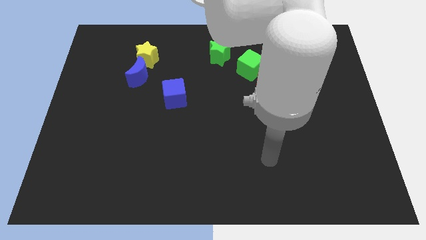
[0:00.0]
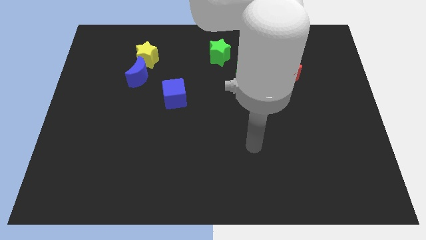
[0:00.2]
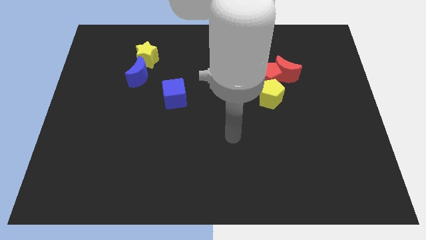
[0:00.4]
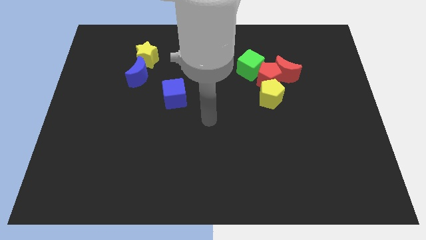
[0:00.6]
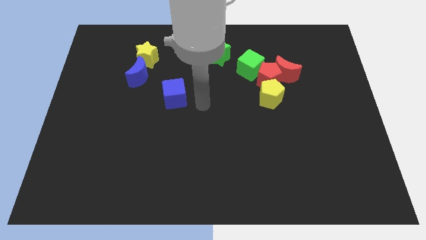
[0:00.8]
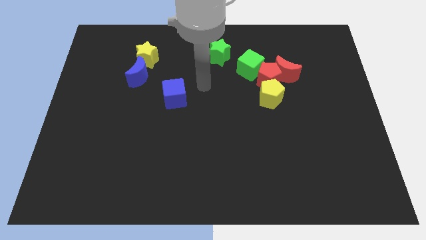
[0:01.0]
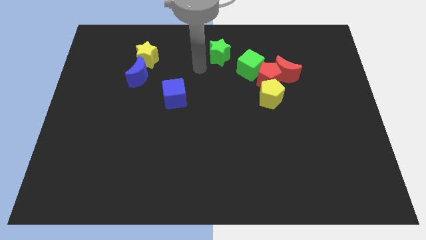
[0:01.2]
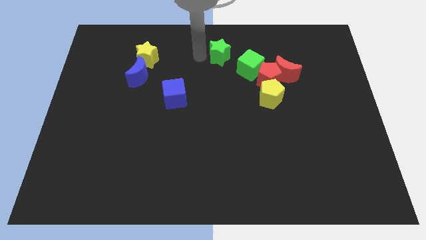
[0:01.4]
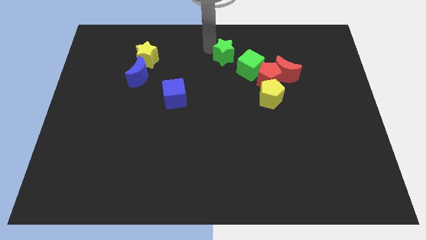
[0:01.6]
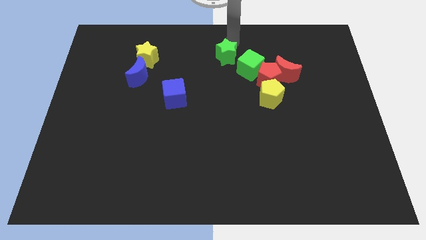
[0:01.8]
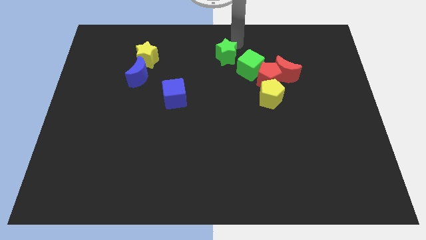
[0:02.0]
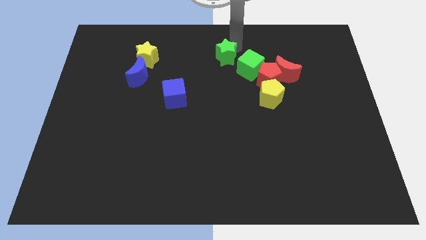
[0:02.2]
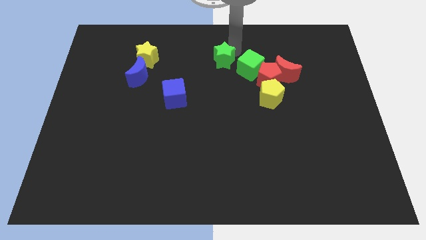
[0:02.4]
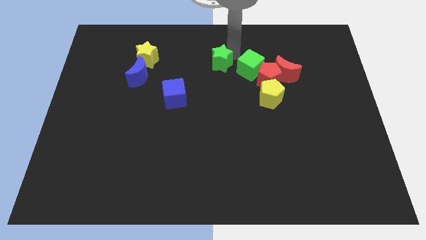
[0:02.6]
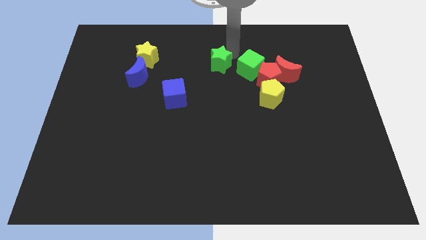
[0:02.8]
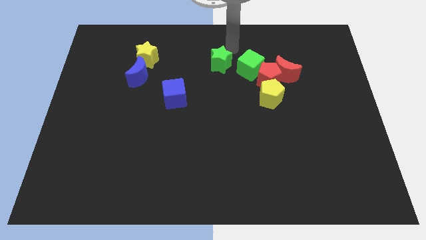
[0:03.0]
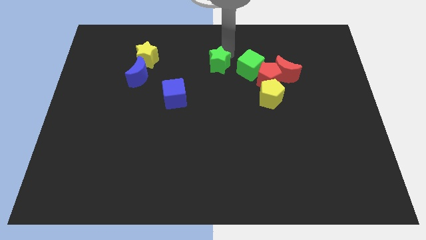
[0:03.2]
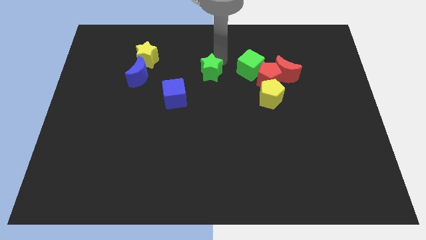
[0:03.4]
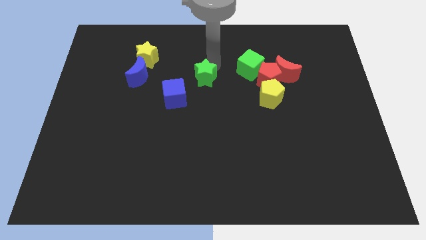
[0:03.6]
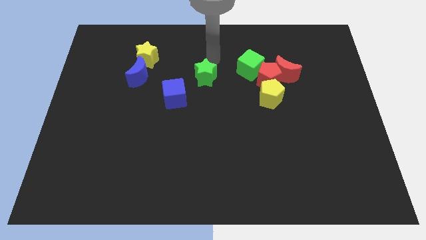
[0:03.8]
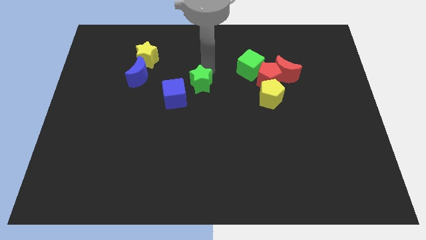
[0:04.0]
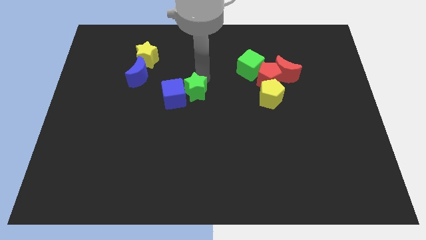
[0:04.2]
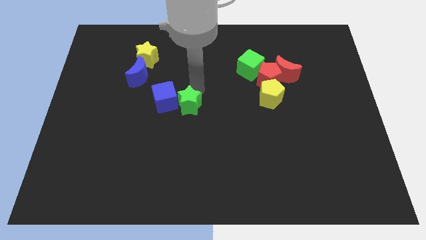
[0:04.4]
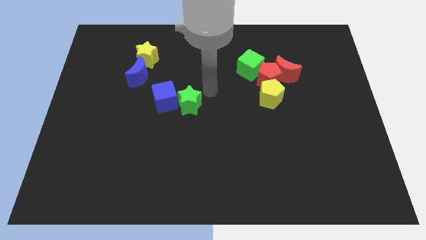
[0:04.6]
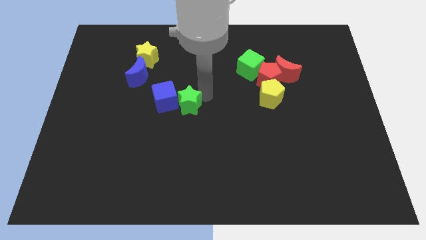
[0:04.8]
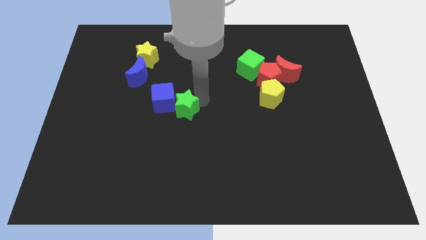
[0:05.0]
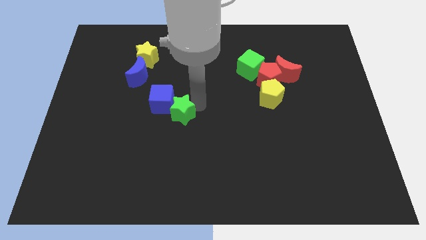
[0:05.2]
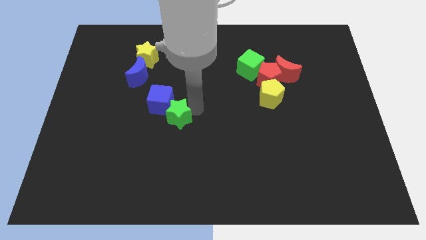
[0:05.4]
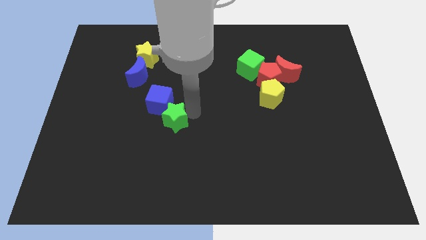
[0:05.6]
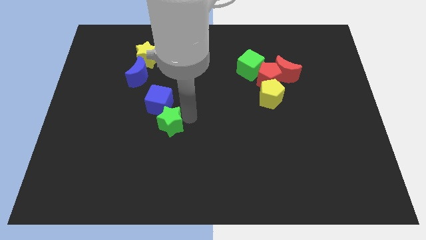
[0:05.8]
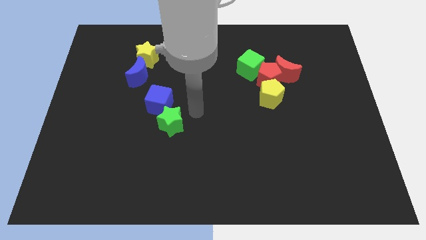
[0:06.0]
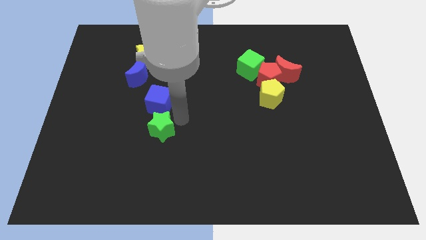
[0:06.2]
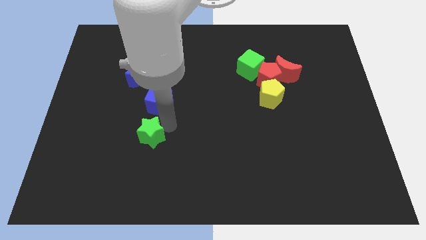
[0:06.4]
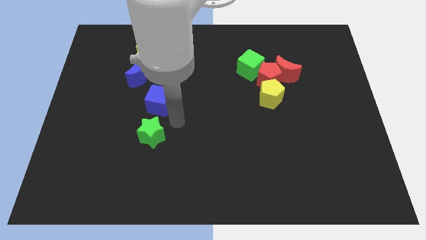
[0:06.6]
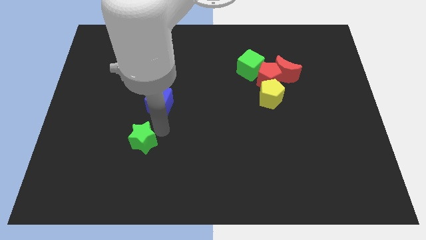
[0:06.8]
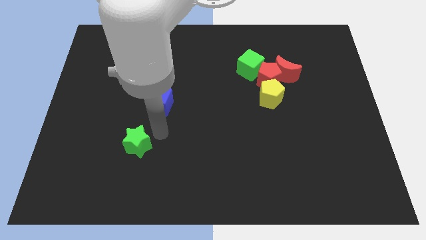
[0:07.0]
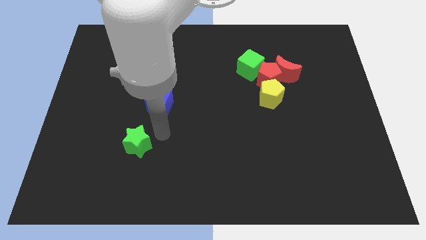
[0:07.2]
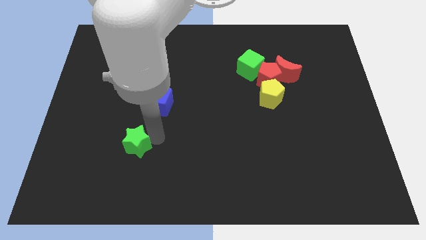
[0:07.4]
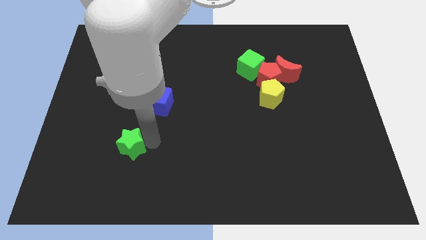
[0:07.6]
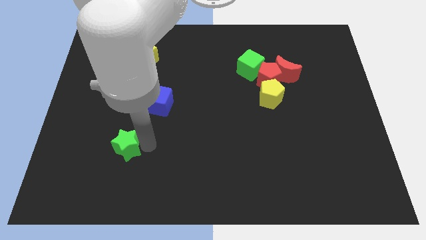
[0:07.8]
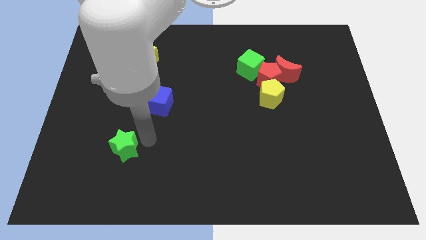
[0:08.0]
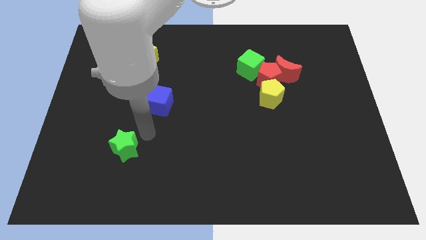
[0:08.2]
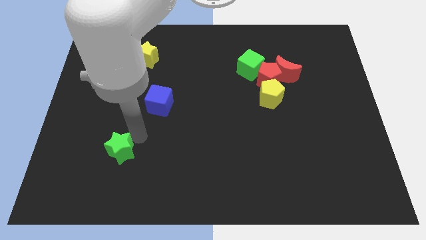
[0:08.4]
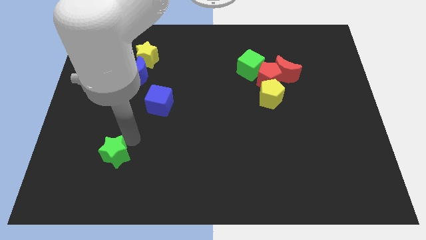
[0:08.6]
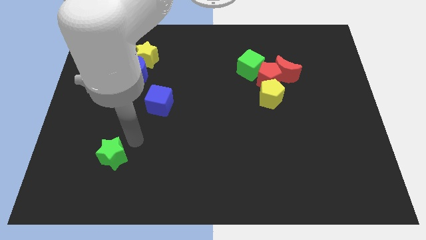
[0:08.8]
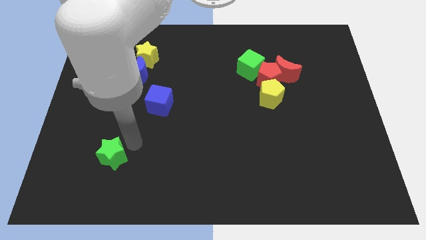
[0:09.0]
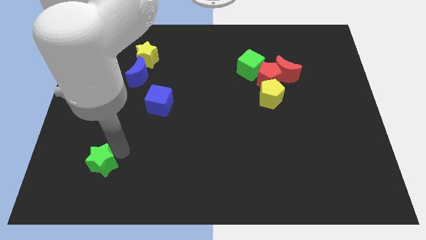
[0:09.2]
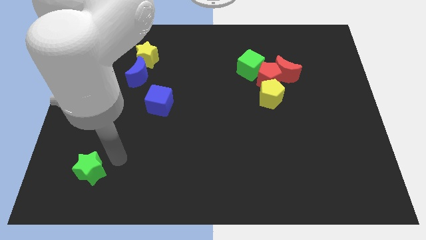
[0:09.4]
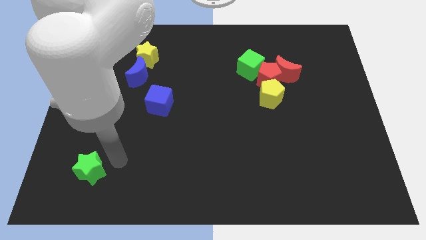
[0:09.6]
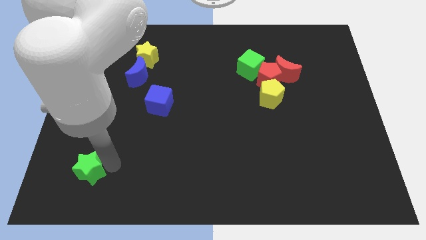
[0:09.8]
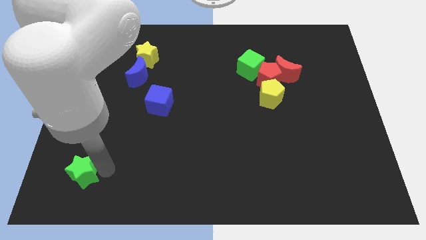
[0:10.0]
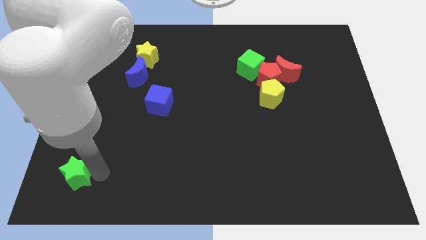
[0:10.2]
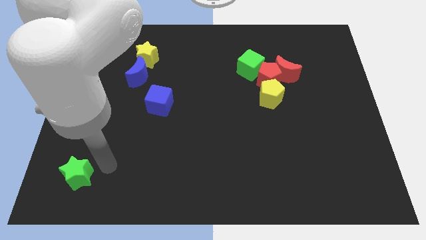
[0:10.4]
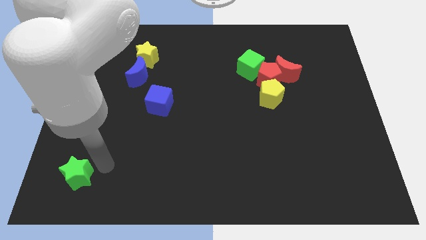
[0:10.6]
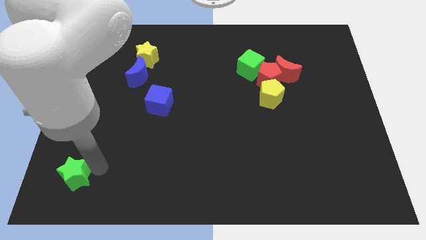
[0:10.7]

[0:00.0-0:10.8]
push the green star to the lower left corner

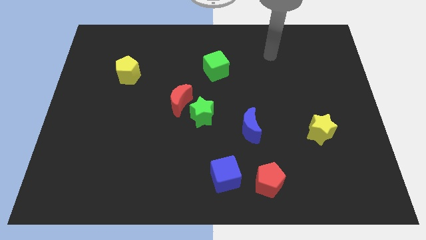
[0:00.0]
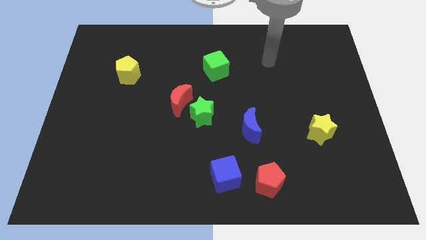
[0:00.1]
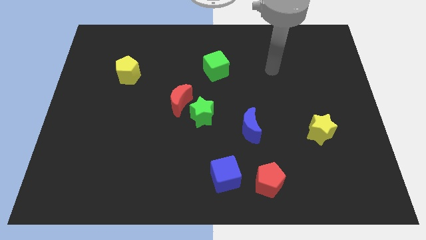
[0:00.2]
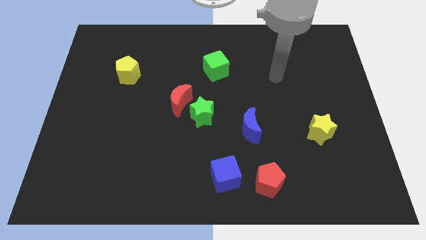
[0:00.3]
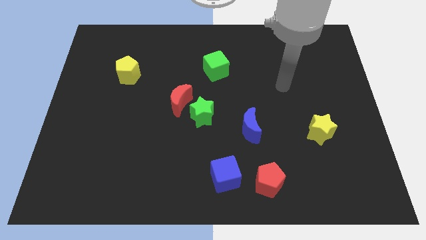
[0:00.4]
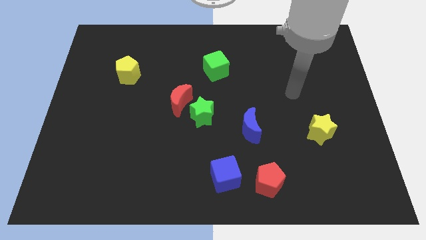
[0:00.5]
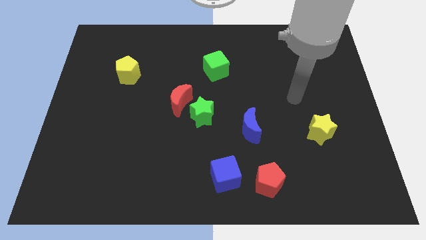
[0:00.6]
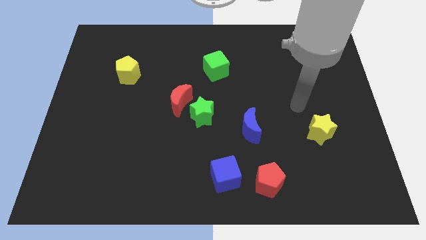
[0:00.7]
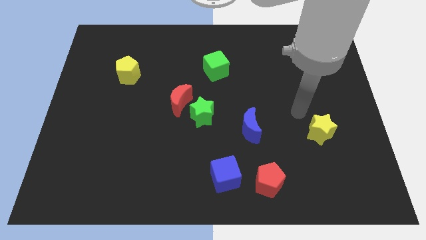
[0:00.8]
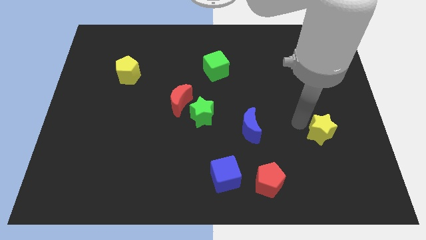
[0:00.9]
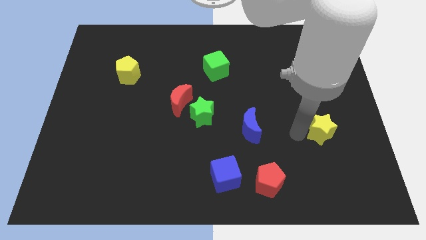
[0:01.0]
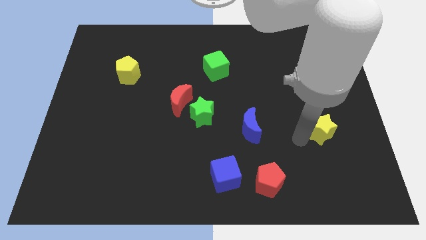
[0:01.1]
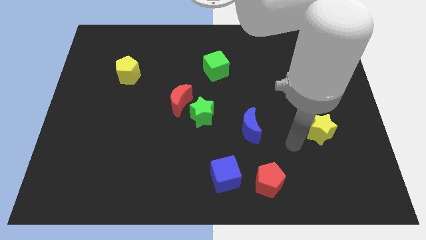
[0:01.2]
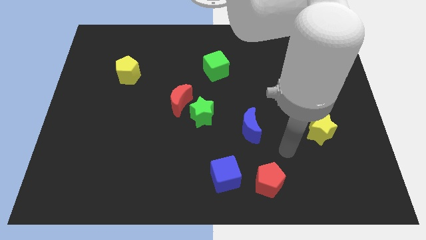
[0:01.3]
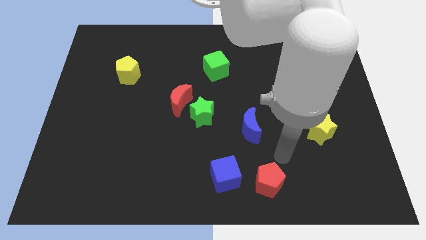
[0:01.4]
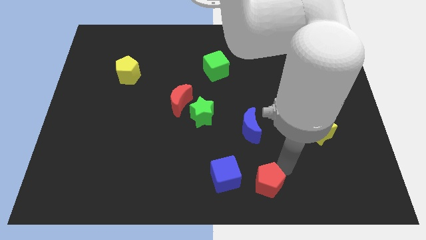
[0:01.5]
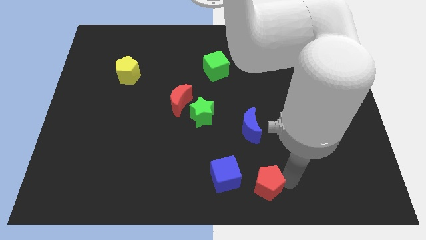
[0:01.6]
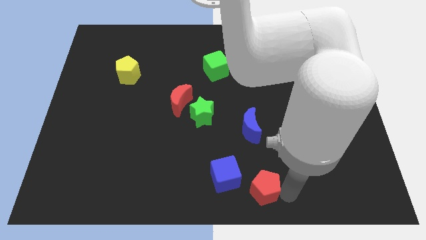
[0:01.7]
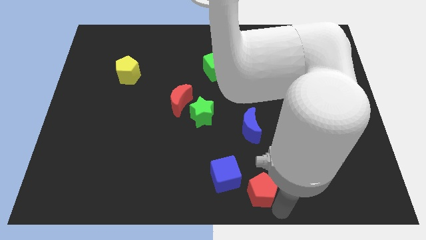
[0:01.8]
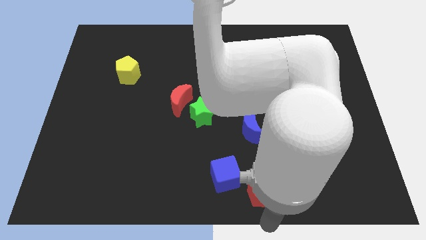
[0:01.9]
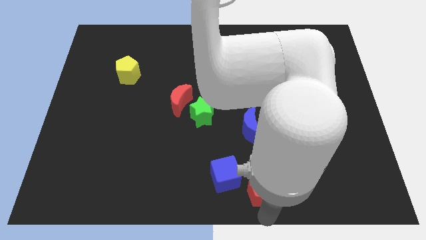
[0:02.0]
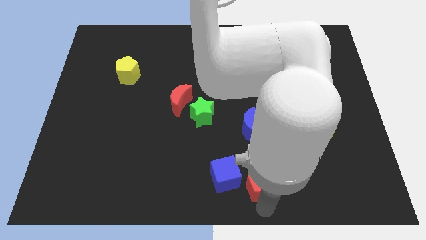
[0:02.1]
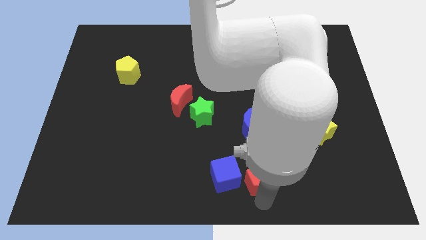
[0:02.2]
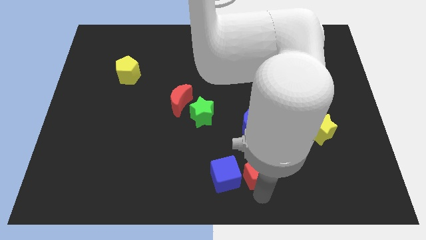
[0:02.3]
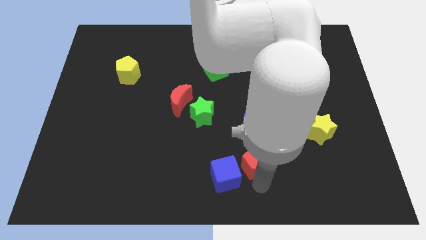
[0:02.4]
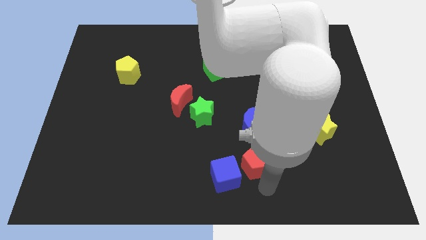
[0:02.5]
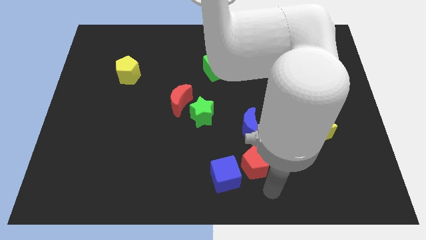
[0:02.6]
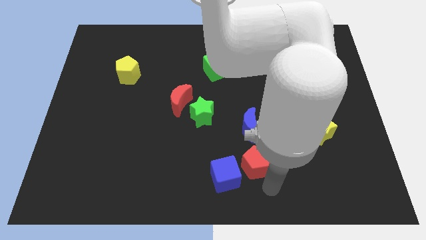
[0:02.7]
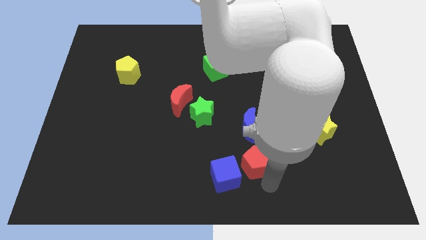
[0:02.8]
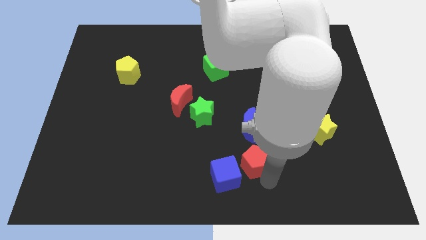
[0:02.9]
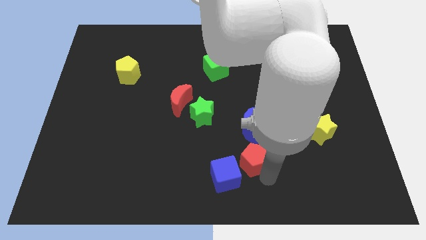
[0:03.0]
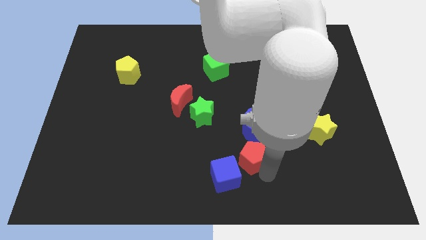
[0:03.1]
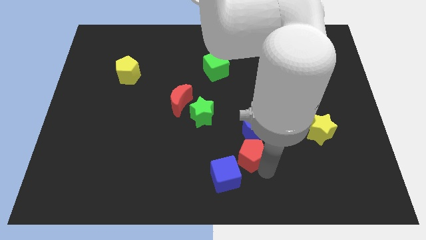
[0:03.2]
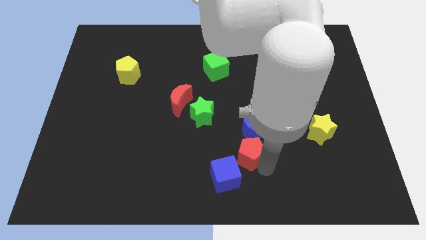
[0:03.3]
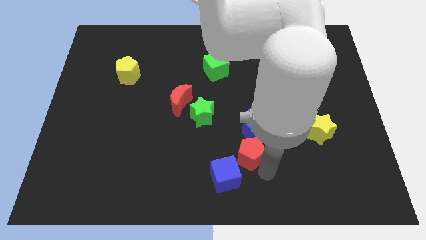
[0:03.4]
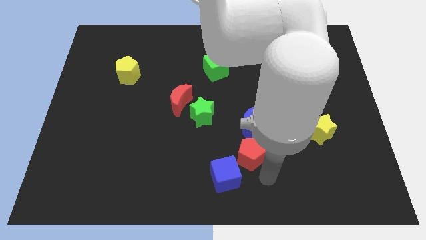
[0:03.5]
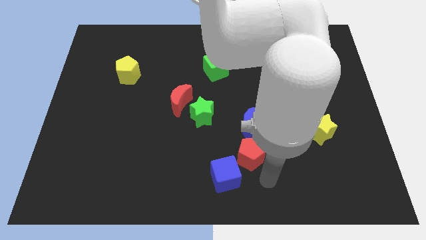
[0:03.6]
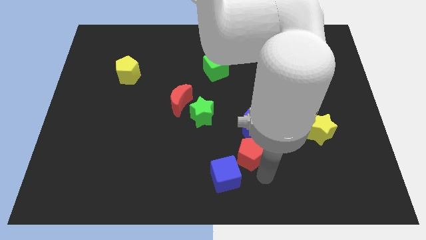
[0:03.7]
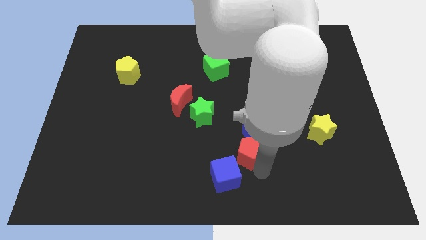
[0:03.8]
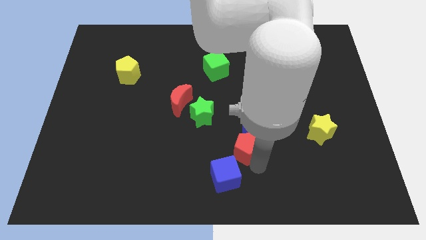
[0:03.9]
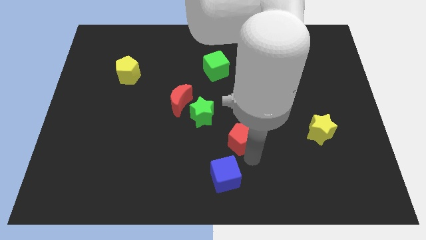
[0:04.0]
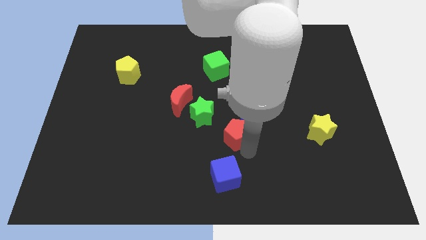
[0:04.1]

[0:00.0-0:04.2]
push the red pentagon to the middle of the board
